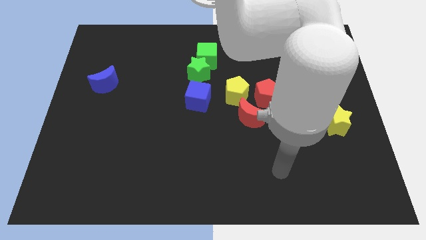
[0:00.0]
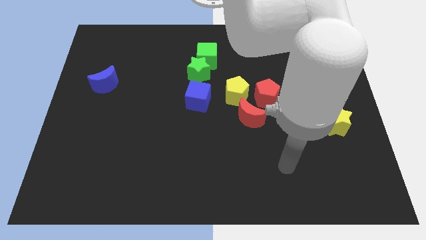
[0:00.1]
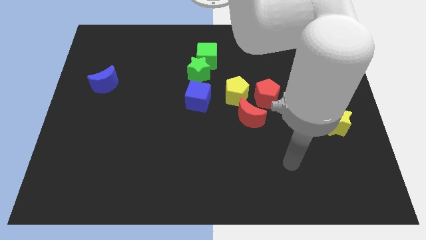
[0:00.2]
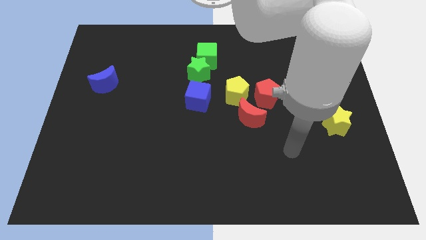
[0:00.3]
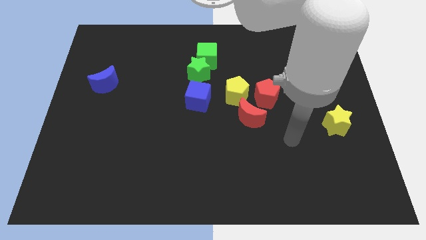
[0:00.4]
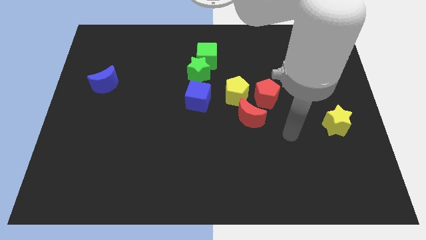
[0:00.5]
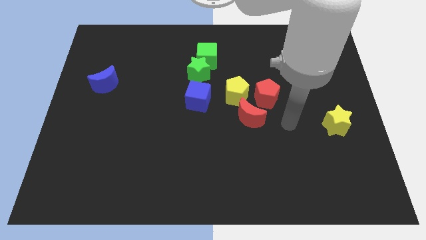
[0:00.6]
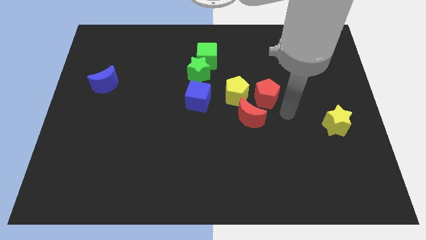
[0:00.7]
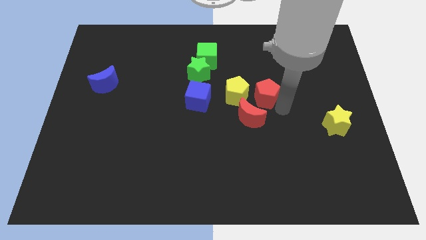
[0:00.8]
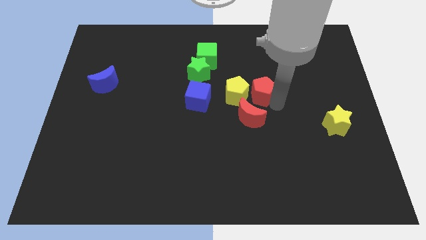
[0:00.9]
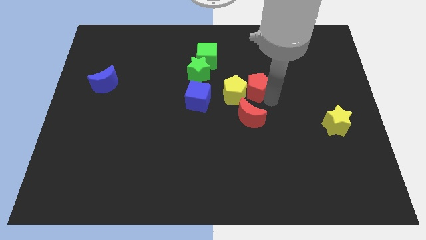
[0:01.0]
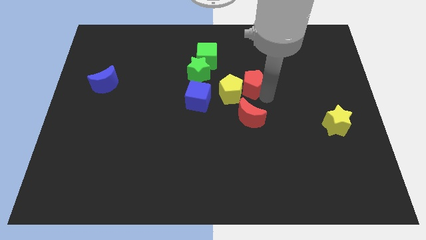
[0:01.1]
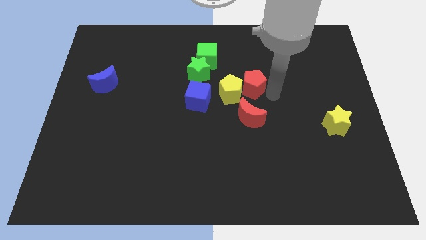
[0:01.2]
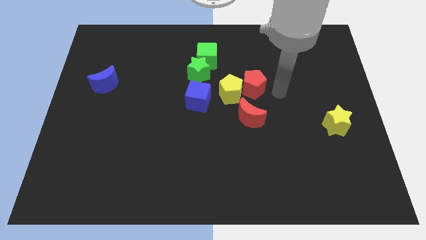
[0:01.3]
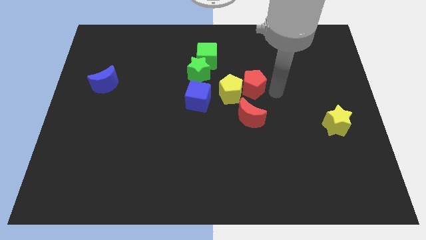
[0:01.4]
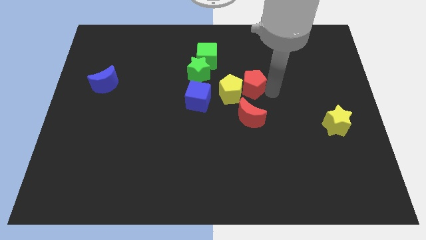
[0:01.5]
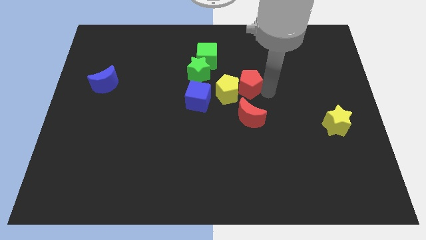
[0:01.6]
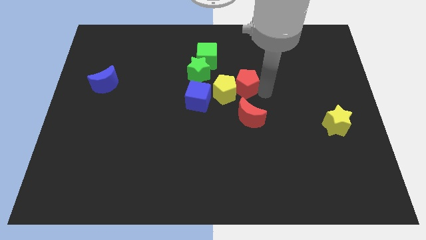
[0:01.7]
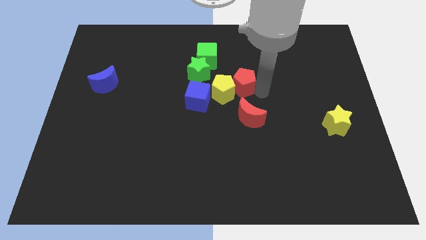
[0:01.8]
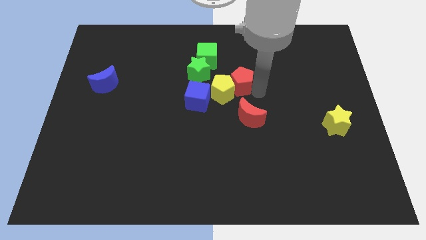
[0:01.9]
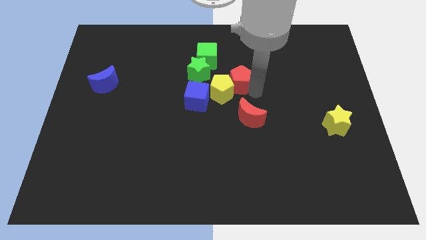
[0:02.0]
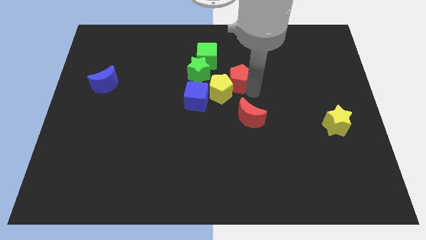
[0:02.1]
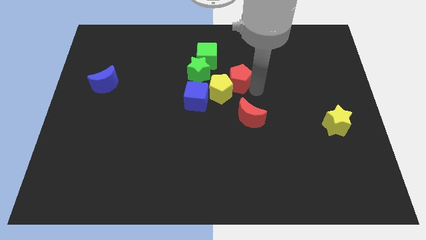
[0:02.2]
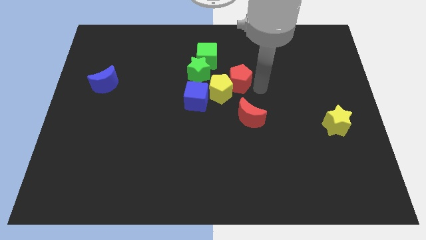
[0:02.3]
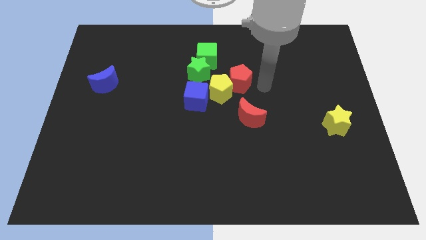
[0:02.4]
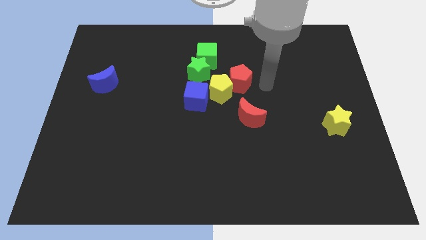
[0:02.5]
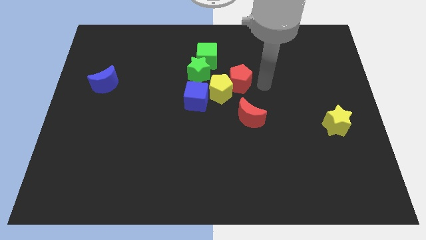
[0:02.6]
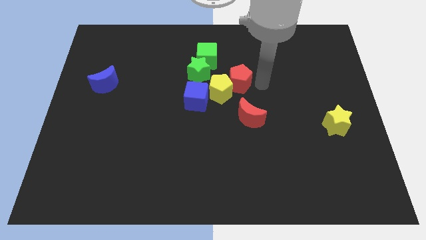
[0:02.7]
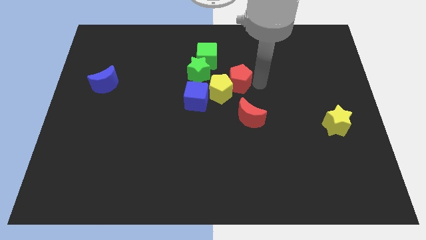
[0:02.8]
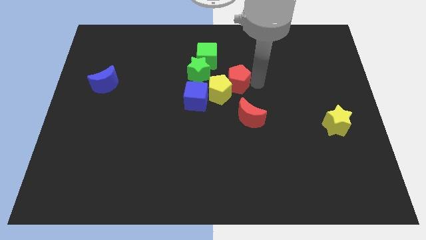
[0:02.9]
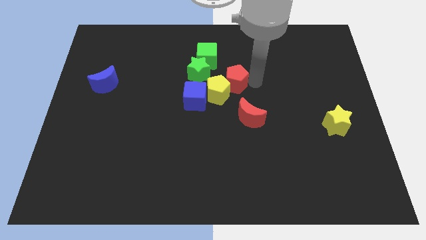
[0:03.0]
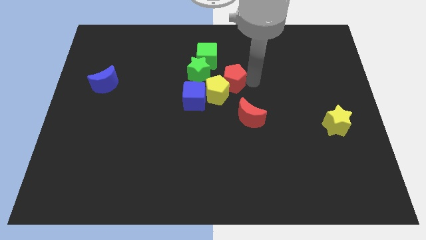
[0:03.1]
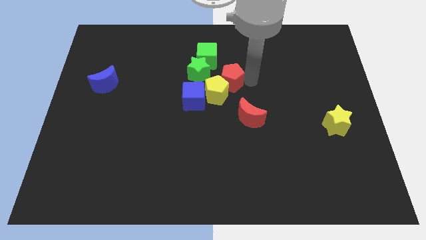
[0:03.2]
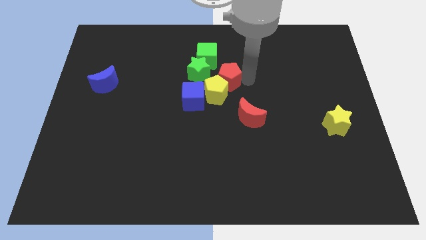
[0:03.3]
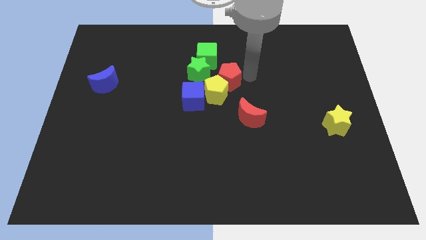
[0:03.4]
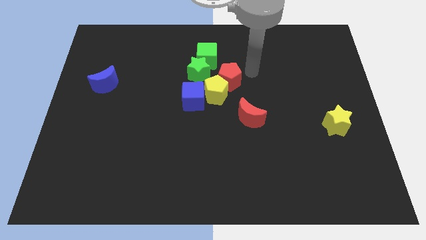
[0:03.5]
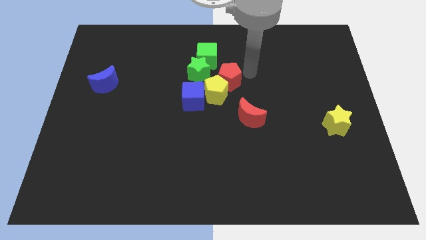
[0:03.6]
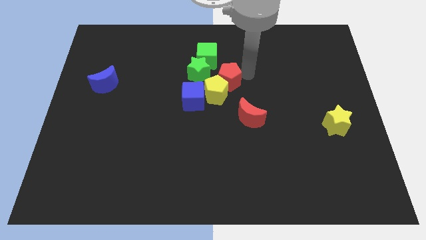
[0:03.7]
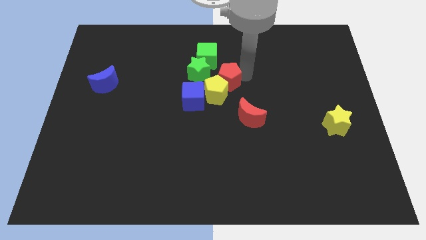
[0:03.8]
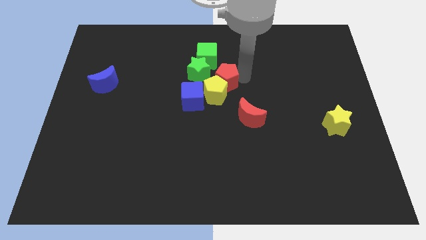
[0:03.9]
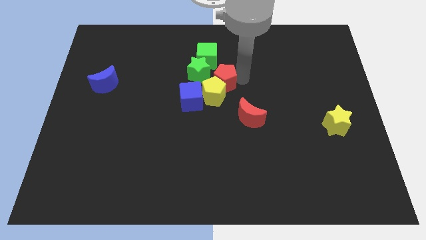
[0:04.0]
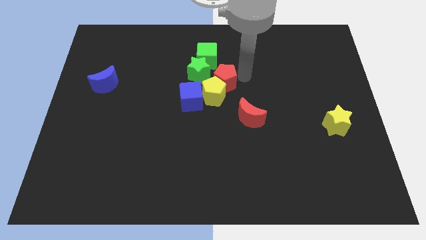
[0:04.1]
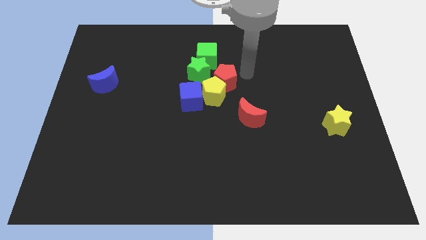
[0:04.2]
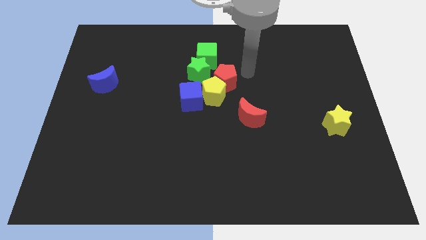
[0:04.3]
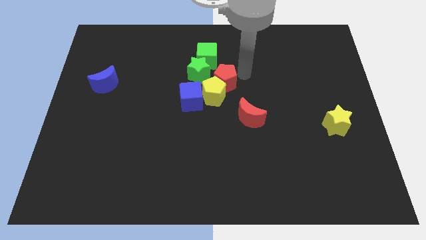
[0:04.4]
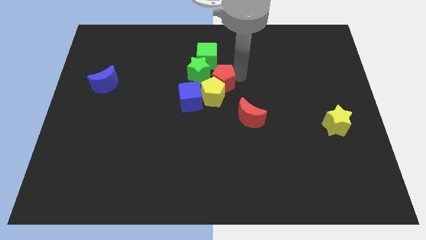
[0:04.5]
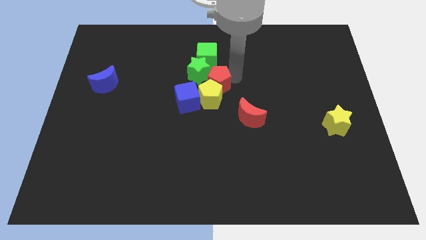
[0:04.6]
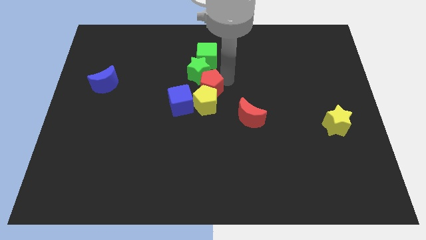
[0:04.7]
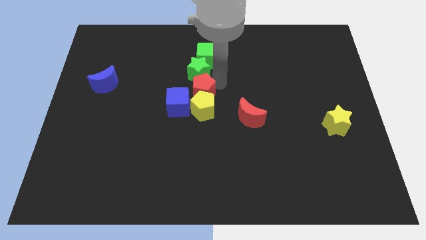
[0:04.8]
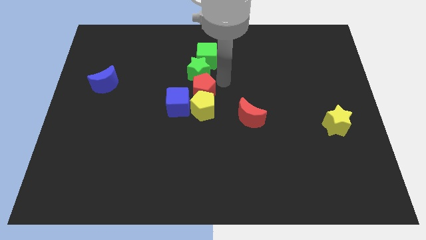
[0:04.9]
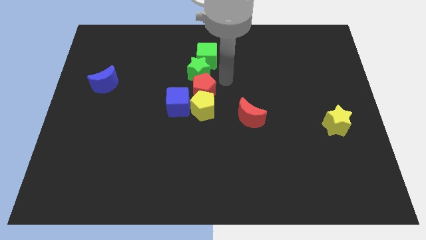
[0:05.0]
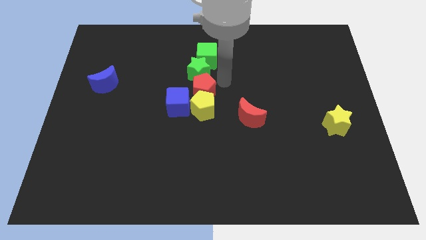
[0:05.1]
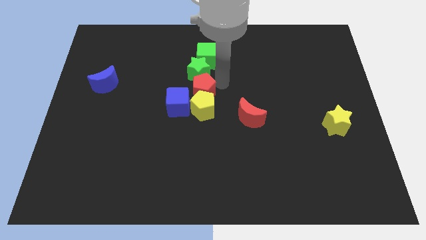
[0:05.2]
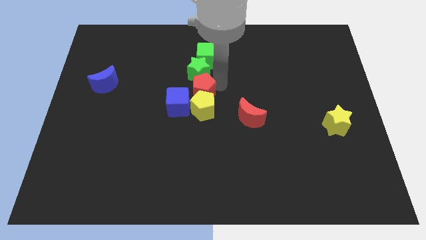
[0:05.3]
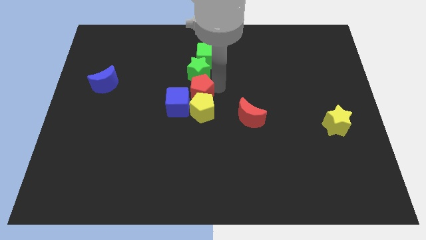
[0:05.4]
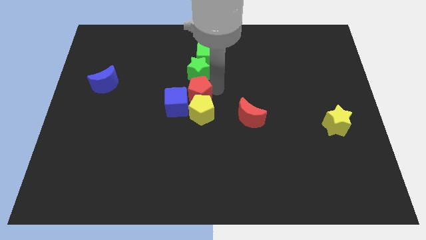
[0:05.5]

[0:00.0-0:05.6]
slide the red pentagon close to the blue cube

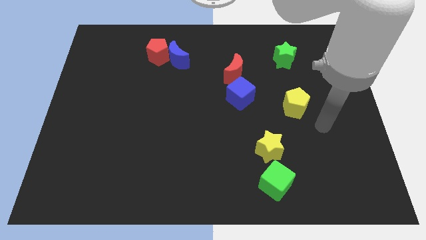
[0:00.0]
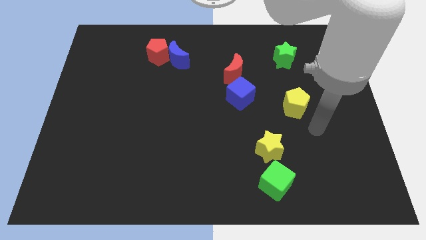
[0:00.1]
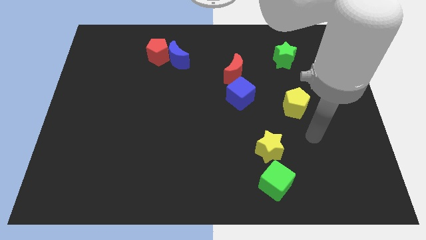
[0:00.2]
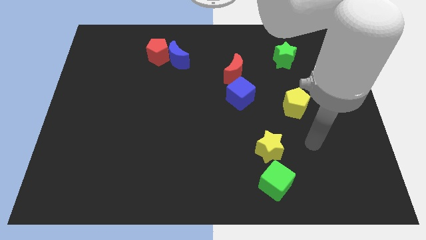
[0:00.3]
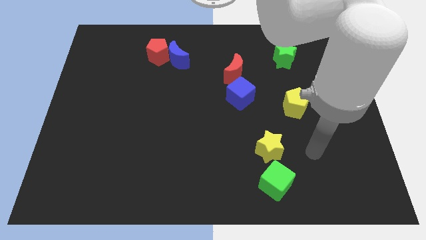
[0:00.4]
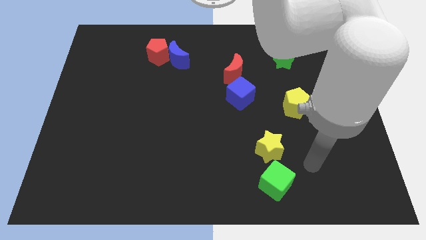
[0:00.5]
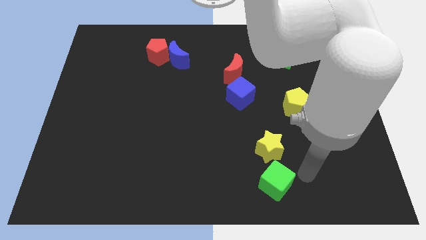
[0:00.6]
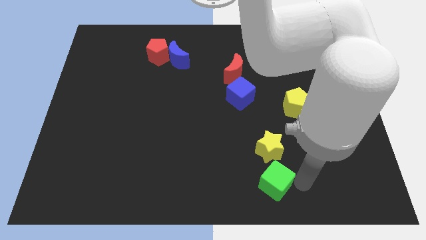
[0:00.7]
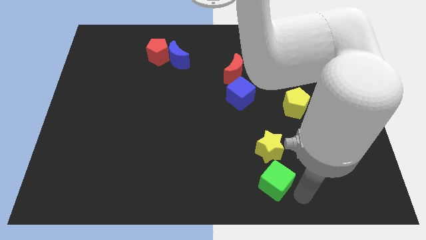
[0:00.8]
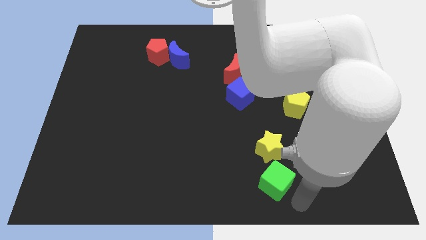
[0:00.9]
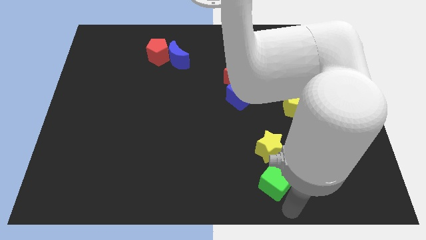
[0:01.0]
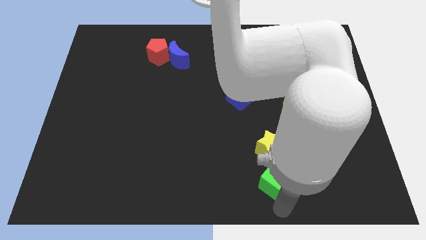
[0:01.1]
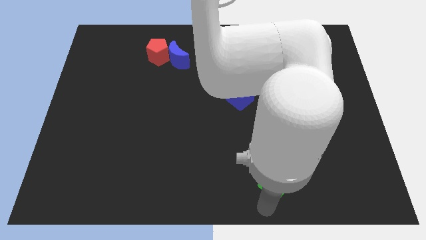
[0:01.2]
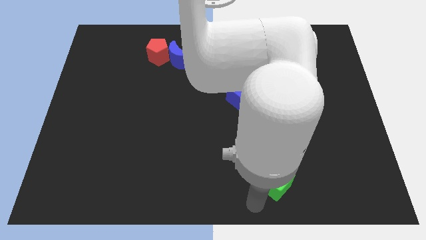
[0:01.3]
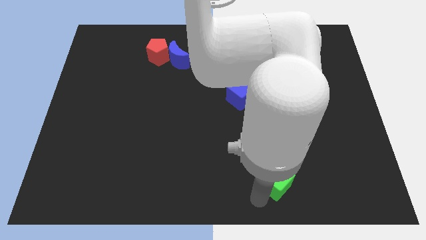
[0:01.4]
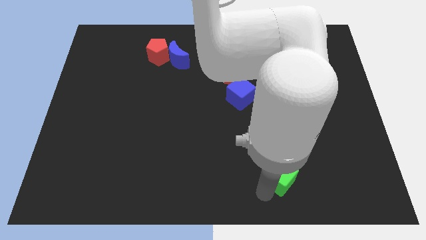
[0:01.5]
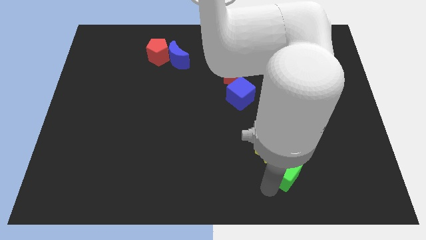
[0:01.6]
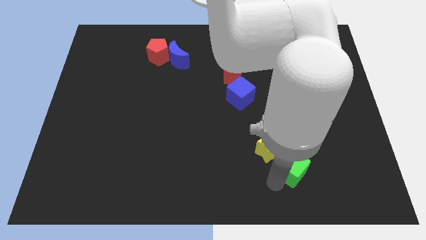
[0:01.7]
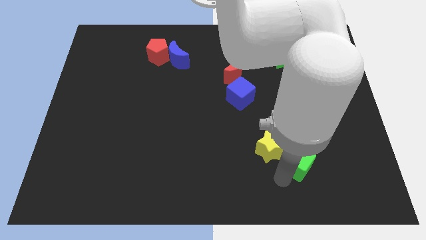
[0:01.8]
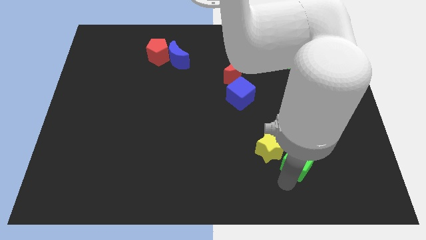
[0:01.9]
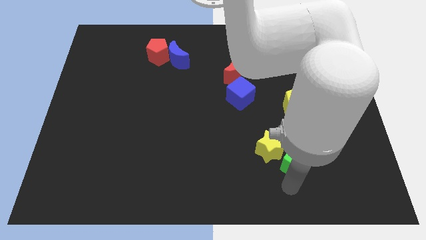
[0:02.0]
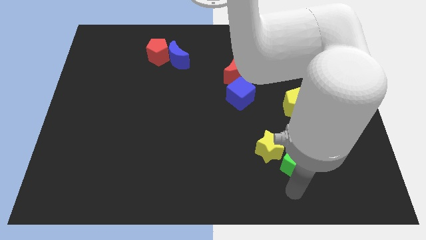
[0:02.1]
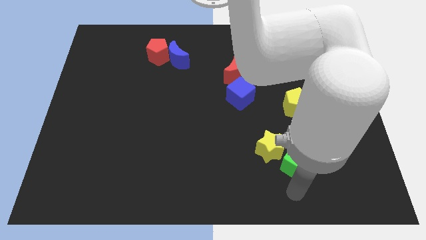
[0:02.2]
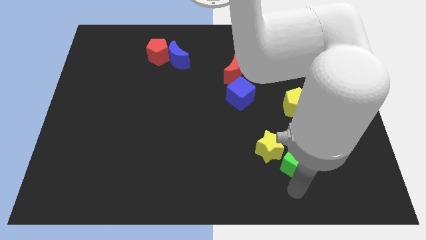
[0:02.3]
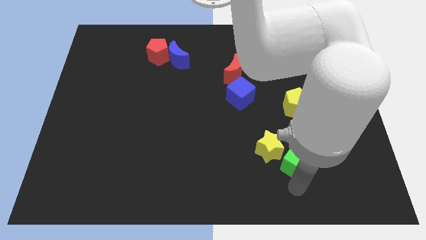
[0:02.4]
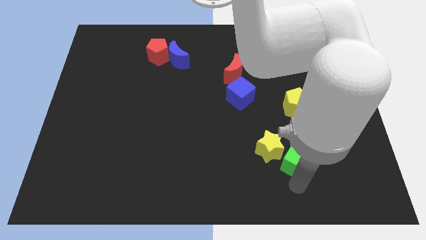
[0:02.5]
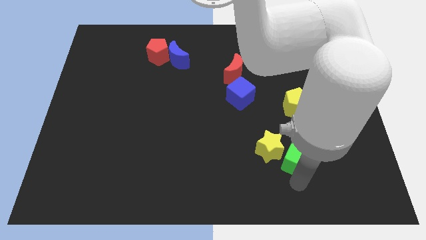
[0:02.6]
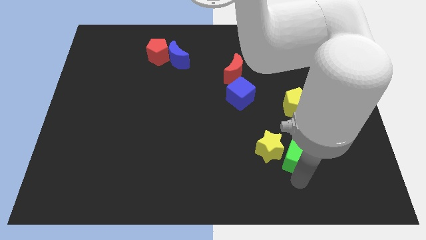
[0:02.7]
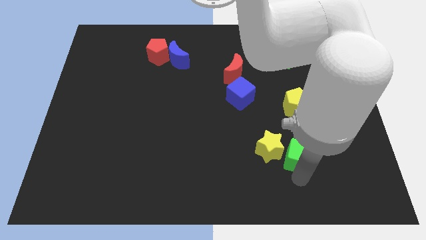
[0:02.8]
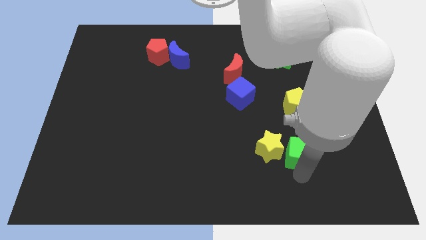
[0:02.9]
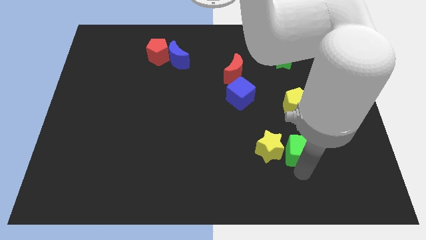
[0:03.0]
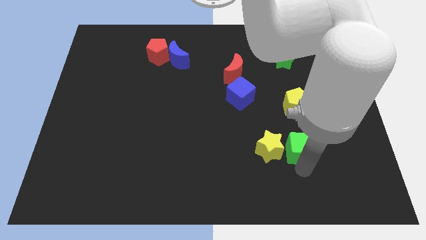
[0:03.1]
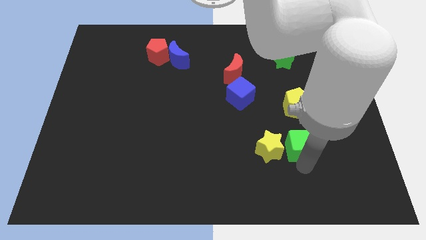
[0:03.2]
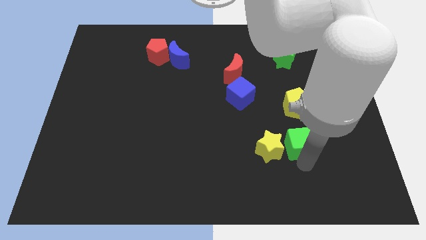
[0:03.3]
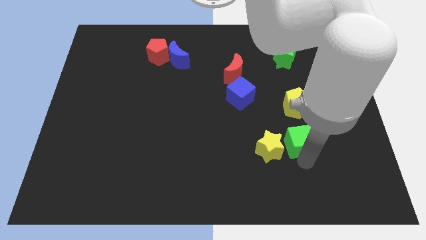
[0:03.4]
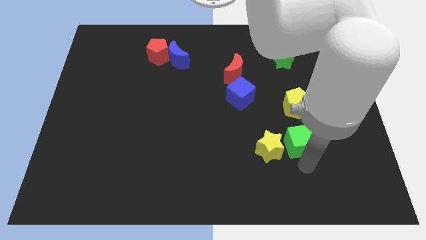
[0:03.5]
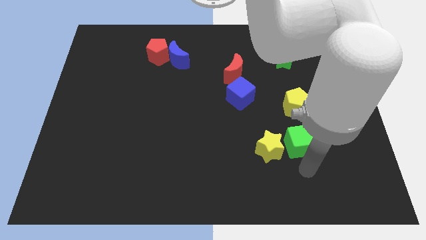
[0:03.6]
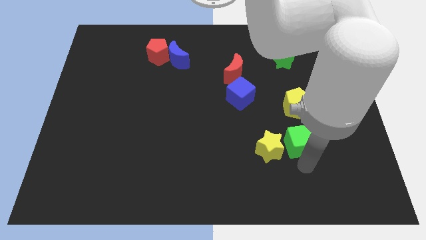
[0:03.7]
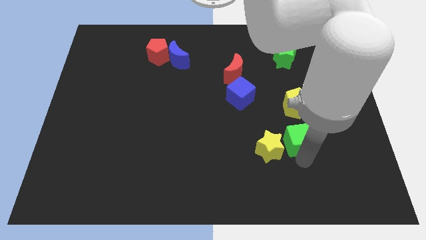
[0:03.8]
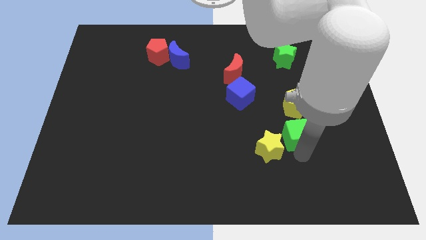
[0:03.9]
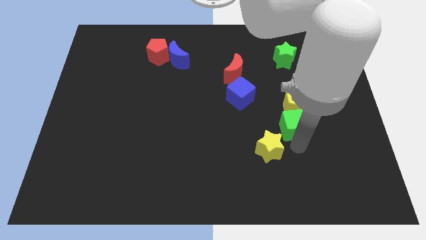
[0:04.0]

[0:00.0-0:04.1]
put the green cube towards the yellow pentagon
